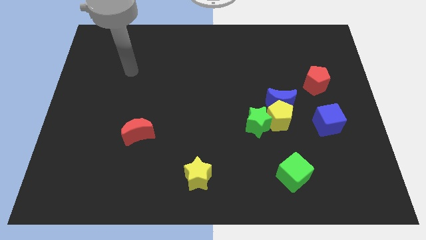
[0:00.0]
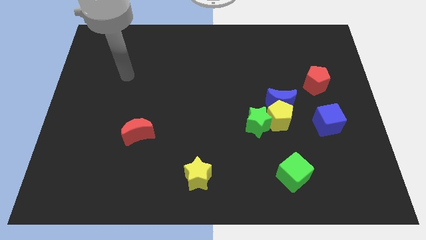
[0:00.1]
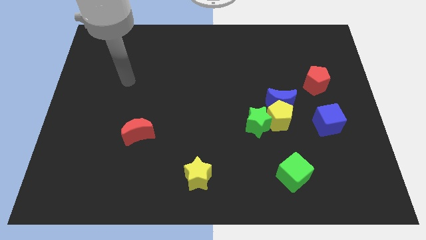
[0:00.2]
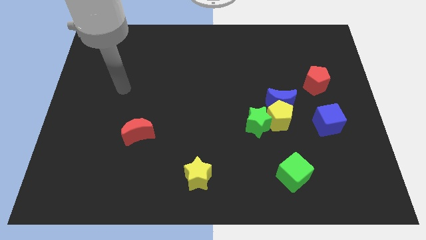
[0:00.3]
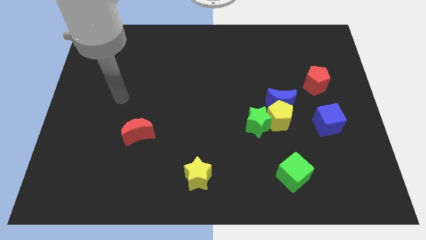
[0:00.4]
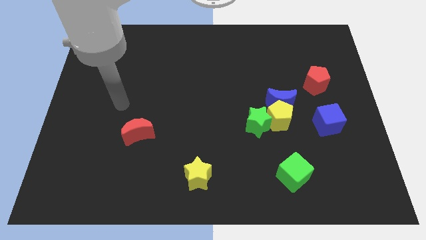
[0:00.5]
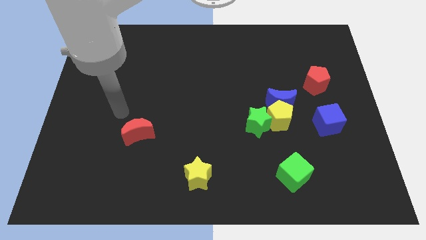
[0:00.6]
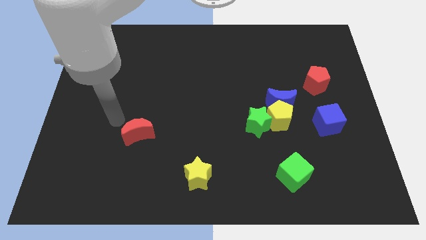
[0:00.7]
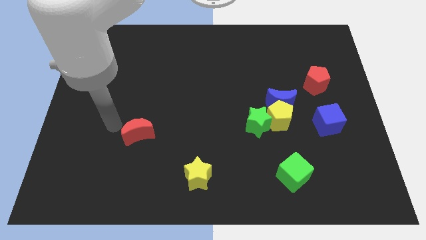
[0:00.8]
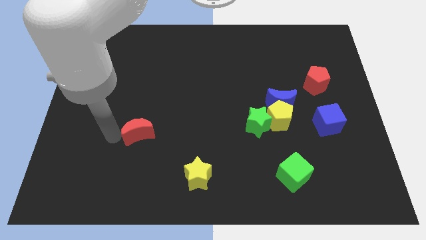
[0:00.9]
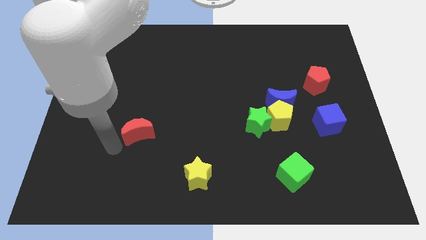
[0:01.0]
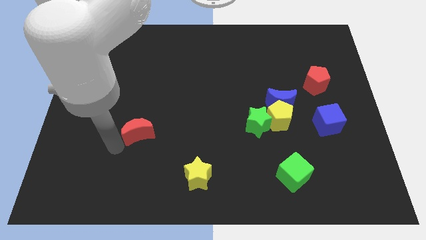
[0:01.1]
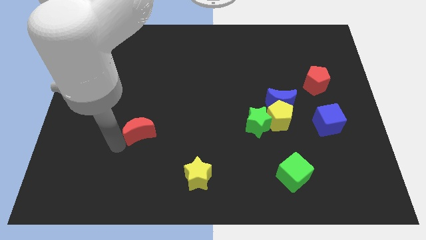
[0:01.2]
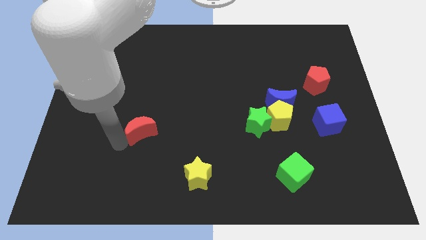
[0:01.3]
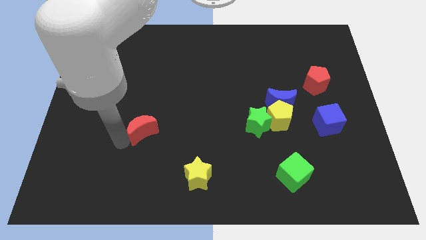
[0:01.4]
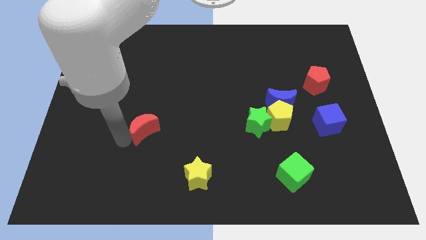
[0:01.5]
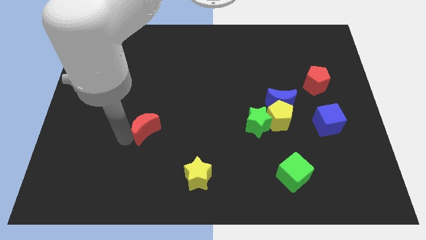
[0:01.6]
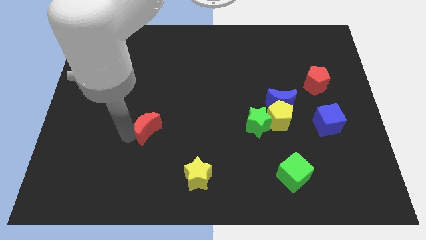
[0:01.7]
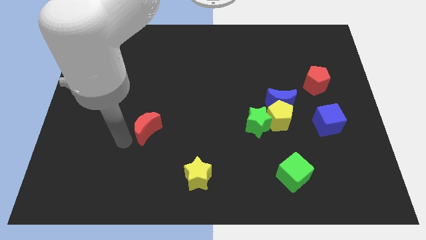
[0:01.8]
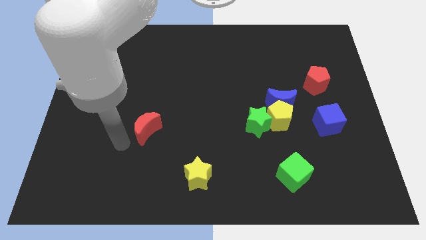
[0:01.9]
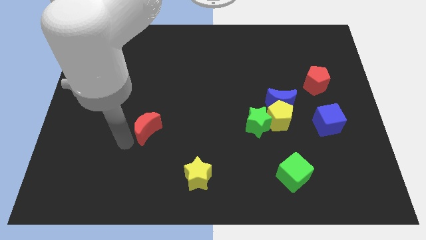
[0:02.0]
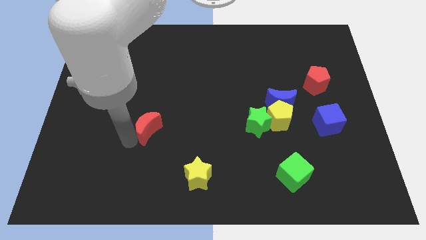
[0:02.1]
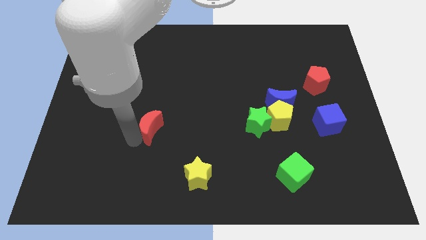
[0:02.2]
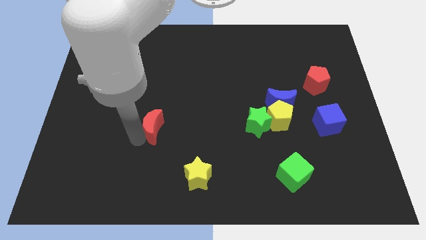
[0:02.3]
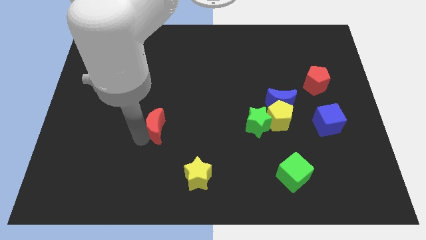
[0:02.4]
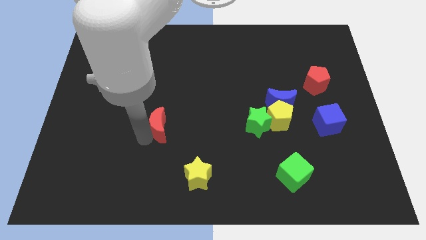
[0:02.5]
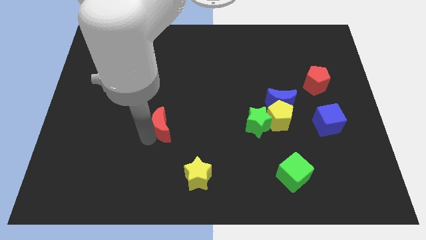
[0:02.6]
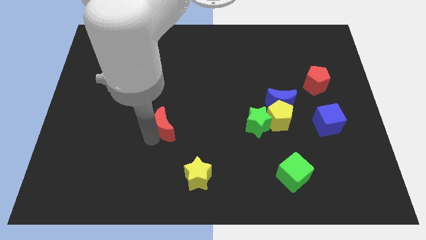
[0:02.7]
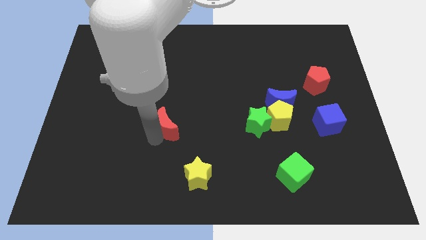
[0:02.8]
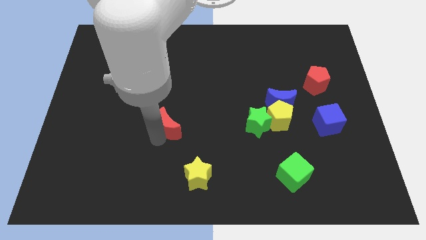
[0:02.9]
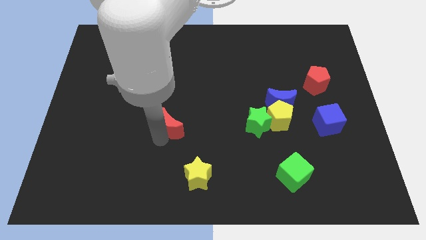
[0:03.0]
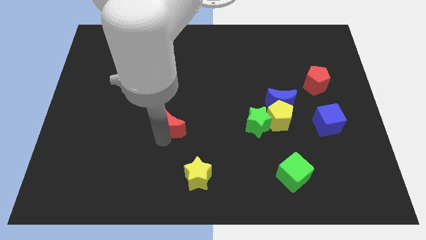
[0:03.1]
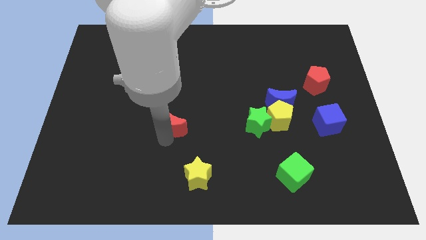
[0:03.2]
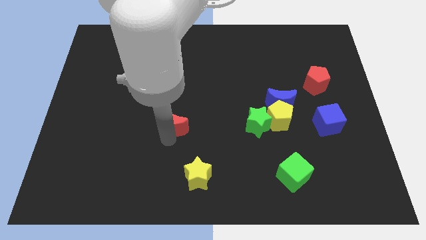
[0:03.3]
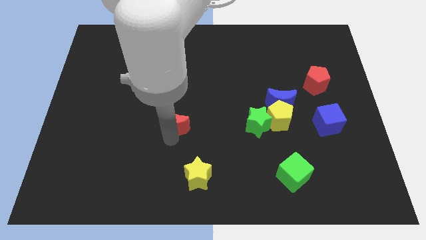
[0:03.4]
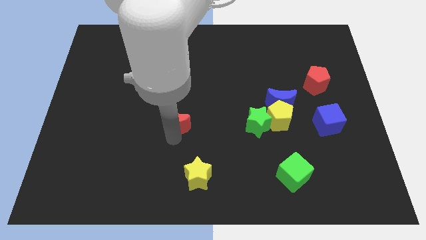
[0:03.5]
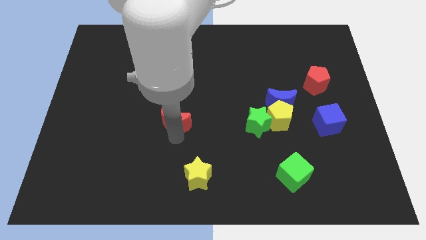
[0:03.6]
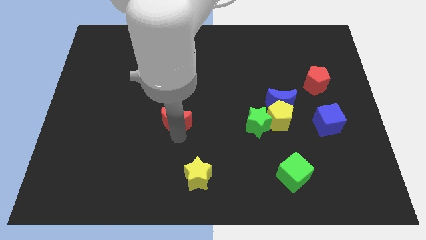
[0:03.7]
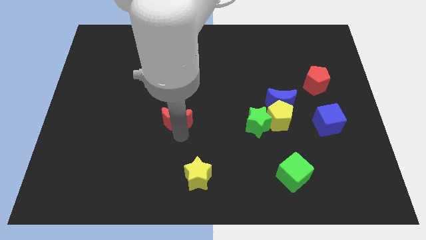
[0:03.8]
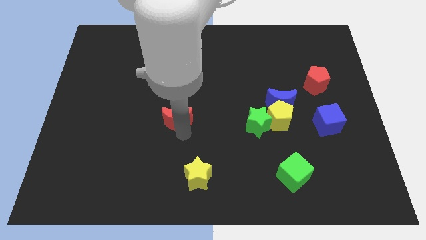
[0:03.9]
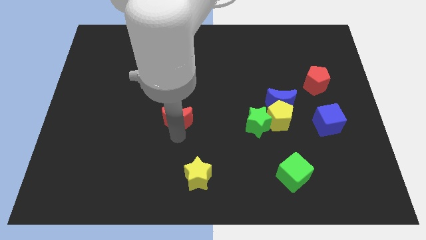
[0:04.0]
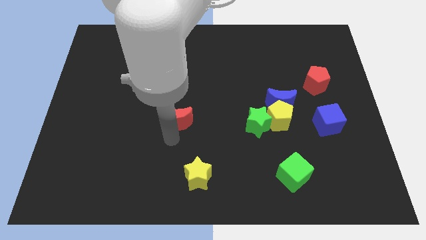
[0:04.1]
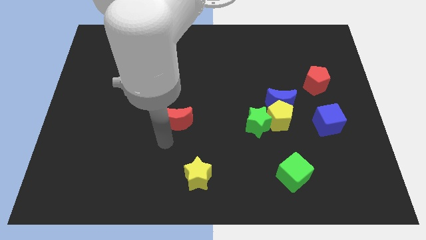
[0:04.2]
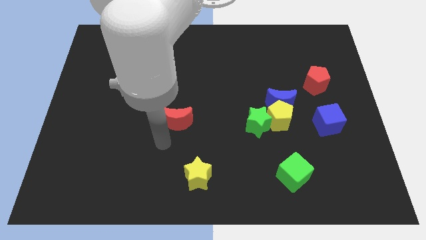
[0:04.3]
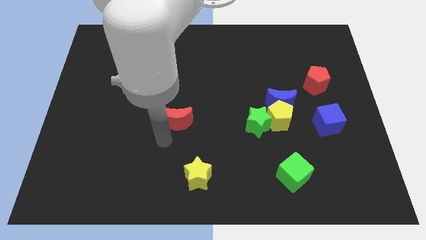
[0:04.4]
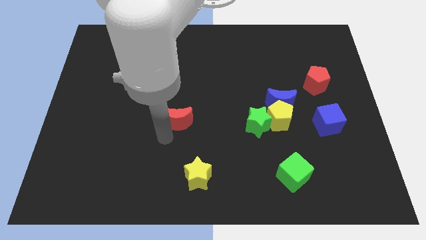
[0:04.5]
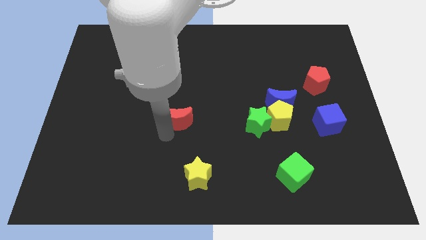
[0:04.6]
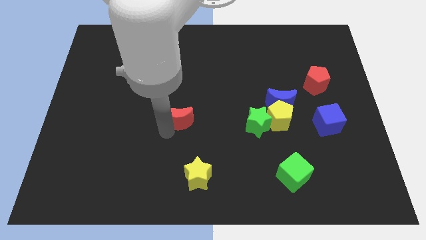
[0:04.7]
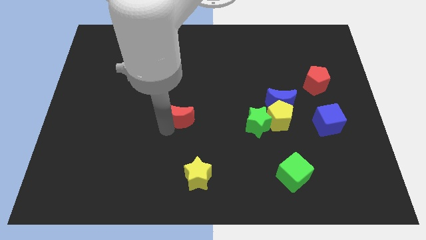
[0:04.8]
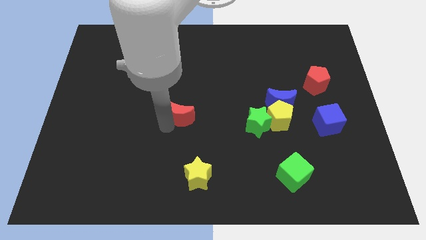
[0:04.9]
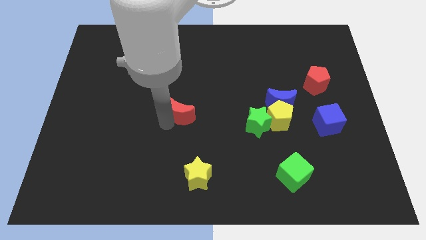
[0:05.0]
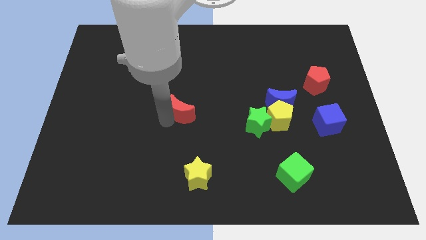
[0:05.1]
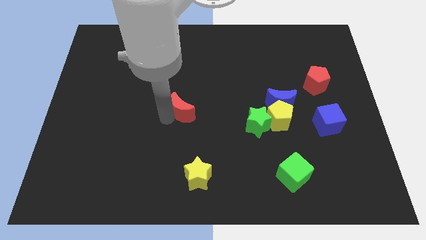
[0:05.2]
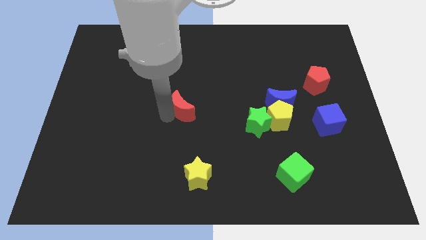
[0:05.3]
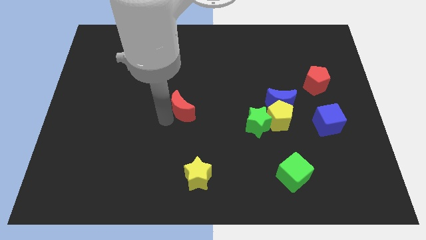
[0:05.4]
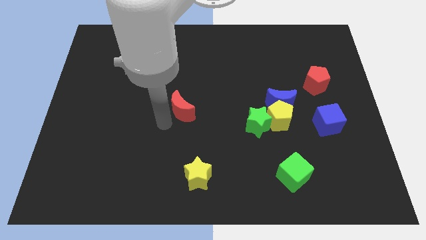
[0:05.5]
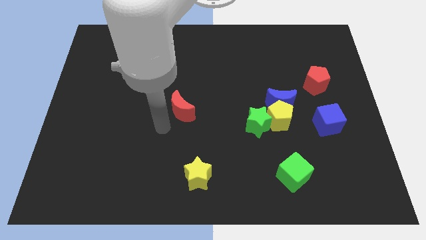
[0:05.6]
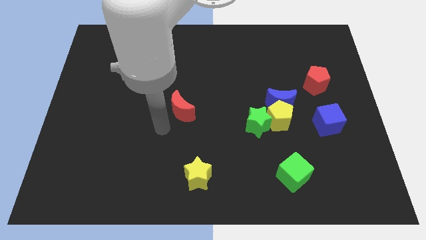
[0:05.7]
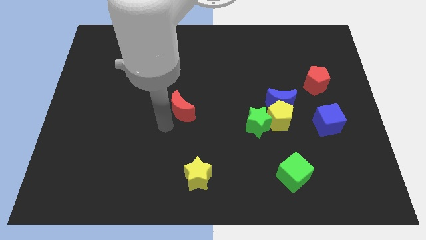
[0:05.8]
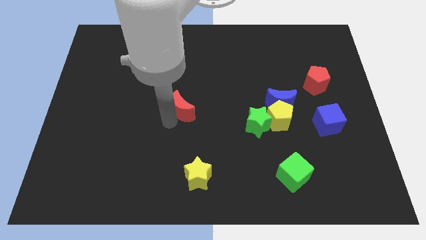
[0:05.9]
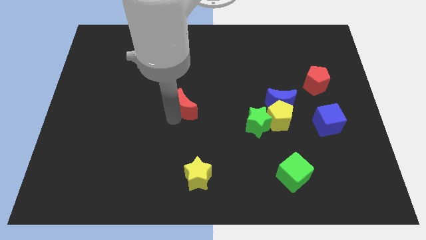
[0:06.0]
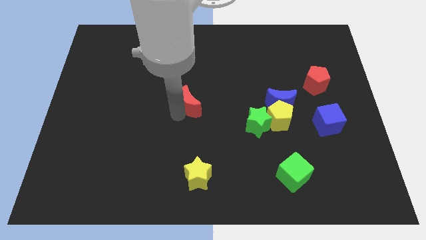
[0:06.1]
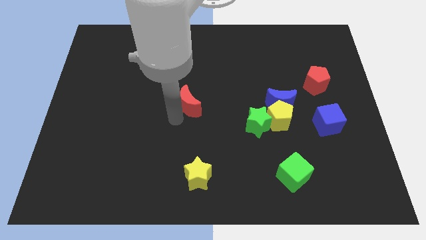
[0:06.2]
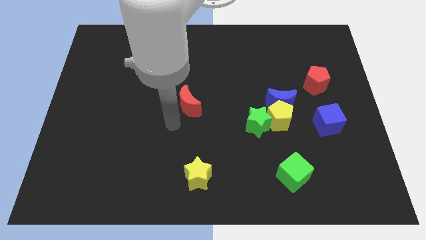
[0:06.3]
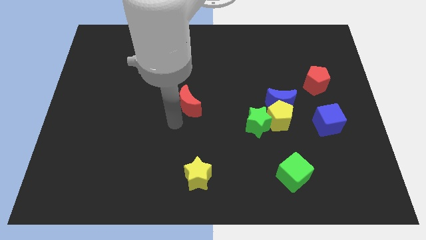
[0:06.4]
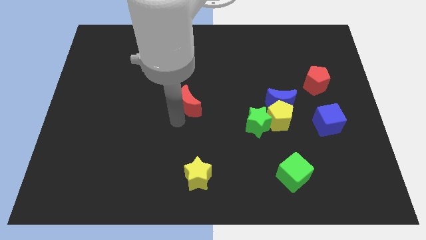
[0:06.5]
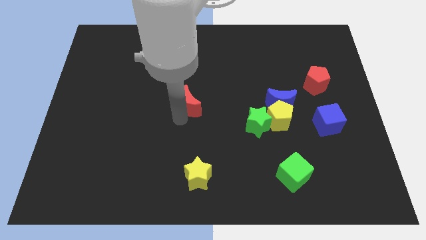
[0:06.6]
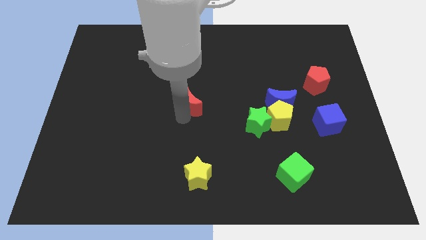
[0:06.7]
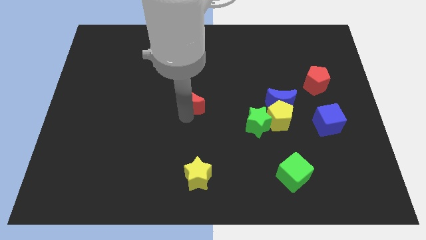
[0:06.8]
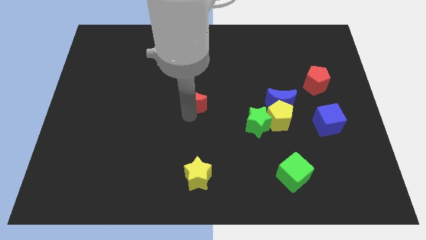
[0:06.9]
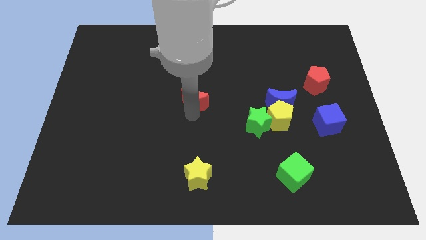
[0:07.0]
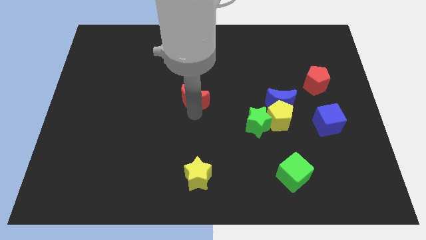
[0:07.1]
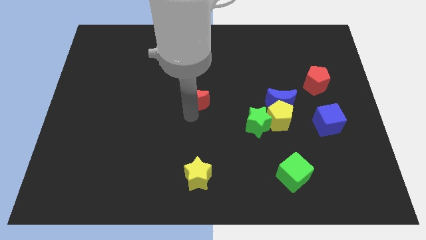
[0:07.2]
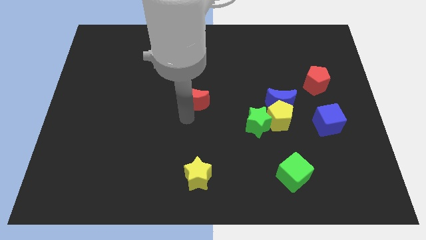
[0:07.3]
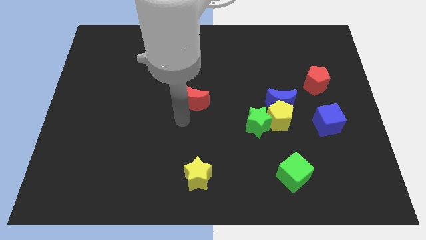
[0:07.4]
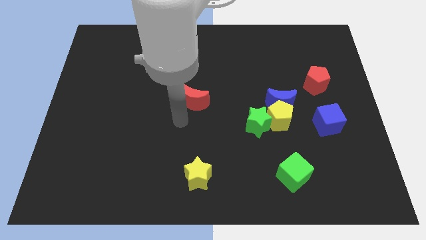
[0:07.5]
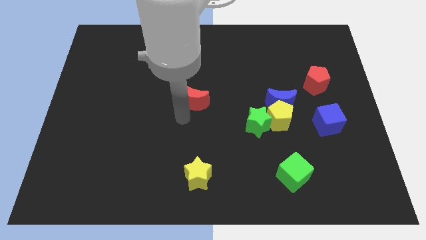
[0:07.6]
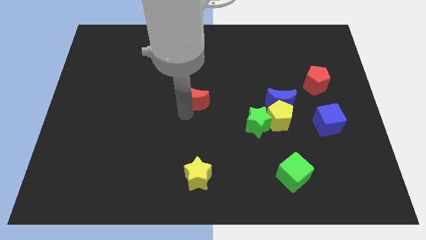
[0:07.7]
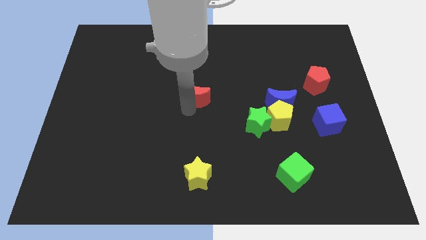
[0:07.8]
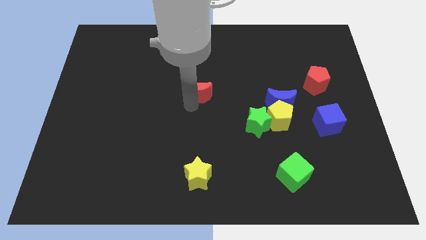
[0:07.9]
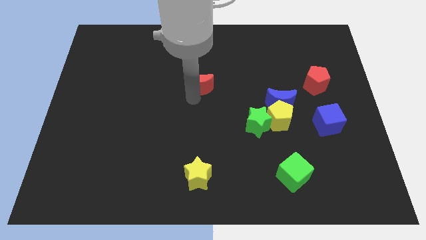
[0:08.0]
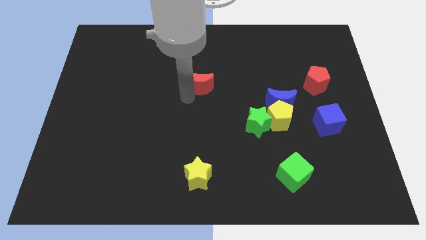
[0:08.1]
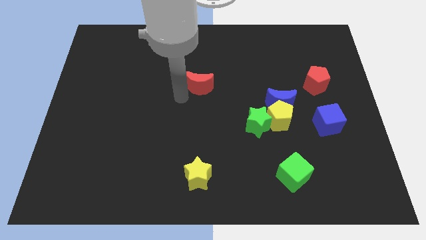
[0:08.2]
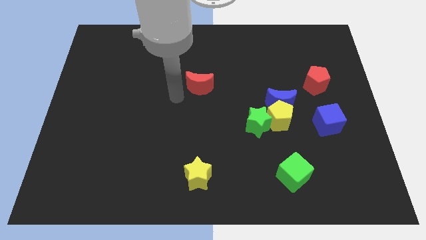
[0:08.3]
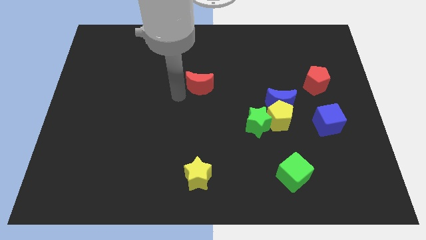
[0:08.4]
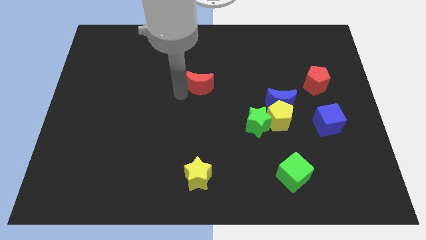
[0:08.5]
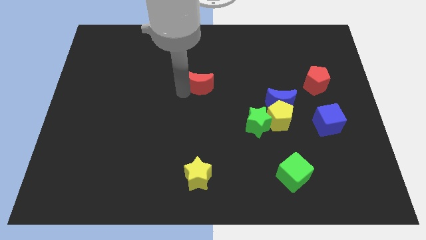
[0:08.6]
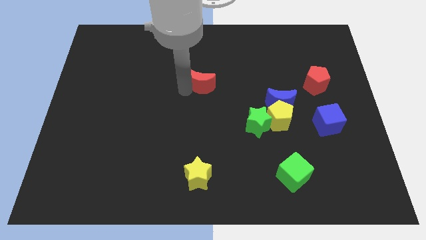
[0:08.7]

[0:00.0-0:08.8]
slide the red moon diagonally up and to the right
